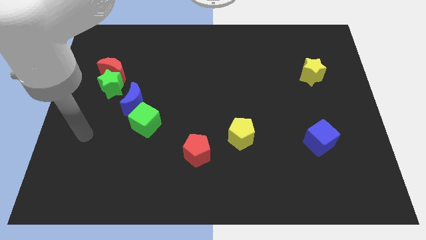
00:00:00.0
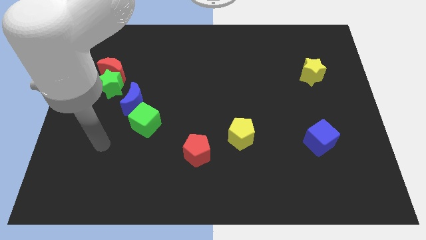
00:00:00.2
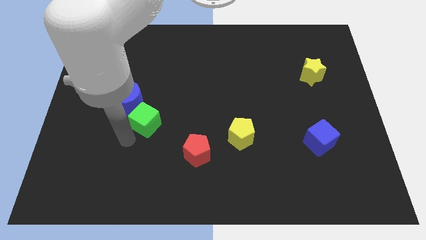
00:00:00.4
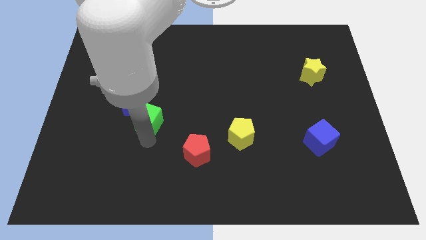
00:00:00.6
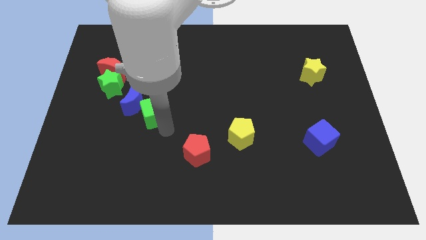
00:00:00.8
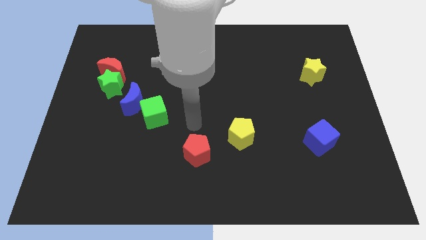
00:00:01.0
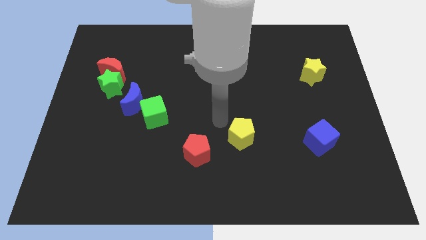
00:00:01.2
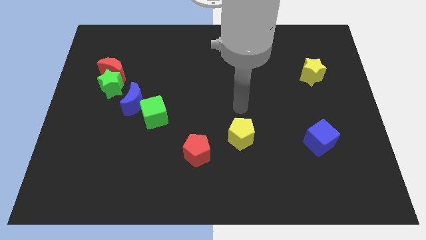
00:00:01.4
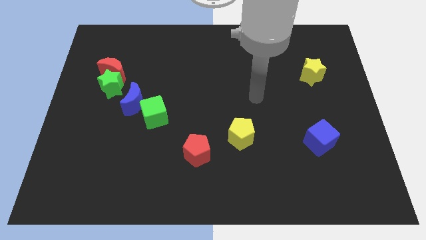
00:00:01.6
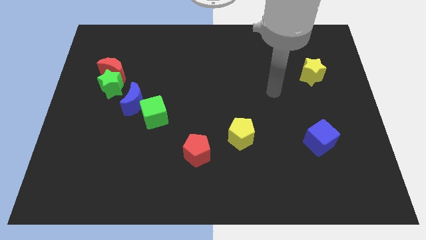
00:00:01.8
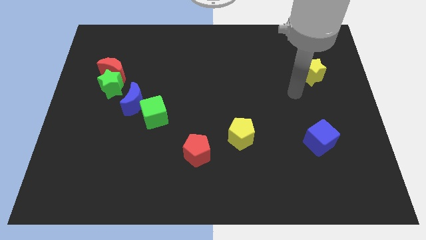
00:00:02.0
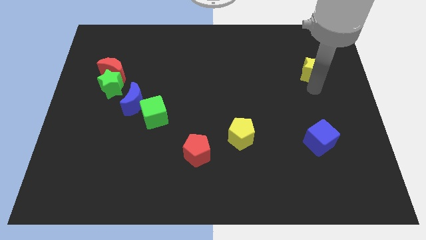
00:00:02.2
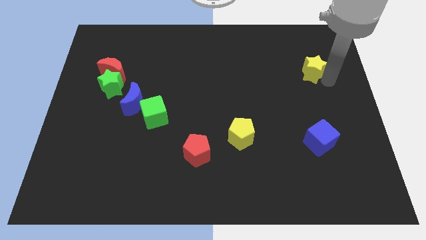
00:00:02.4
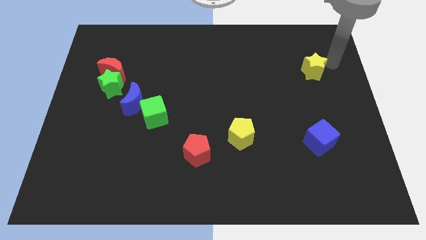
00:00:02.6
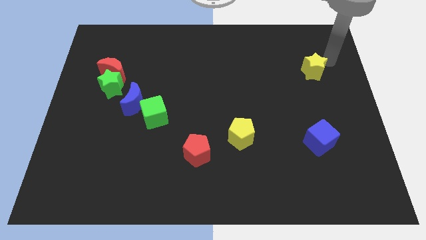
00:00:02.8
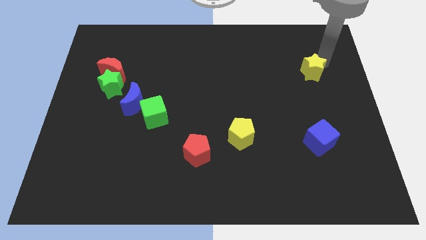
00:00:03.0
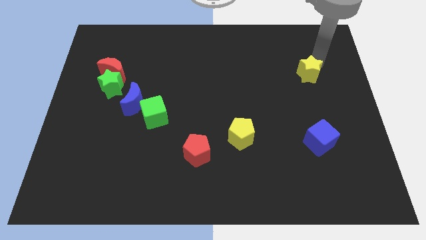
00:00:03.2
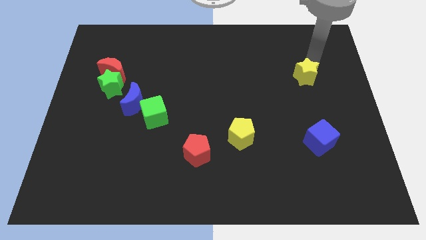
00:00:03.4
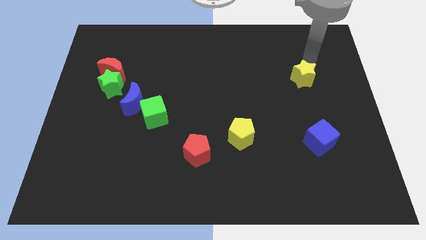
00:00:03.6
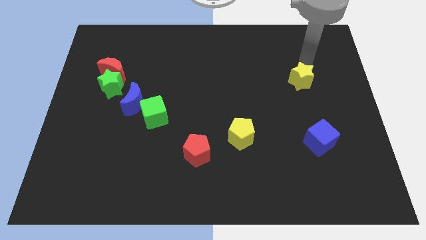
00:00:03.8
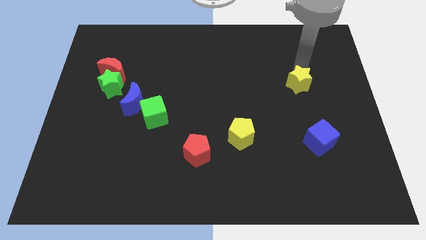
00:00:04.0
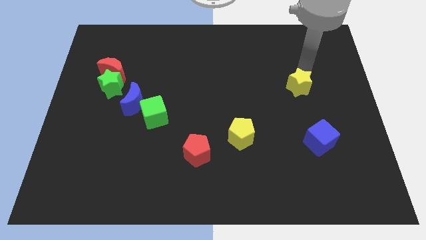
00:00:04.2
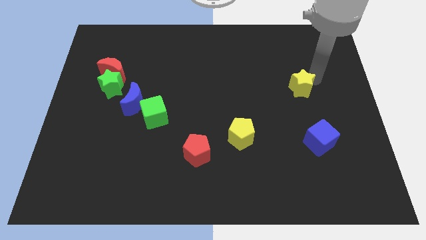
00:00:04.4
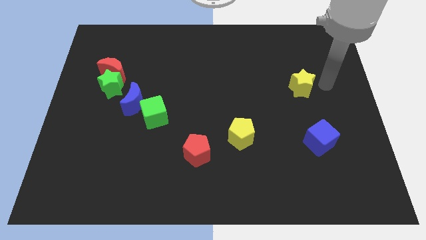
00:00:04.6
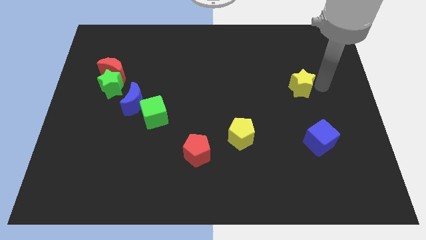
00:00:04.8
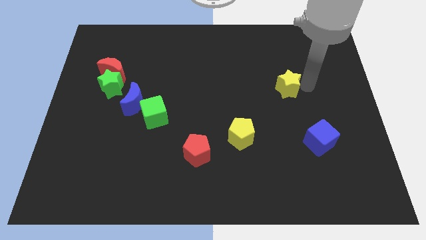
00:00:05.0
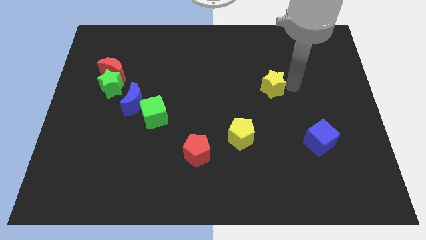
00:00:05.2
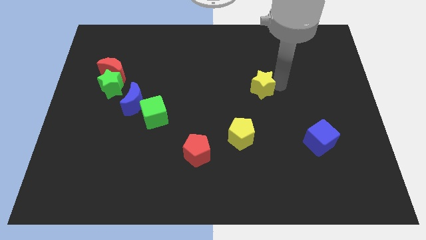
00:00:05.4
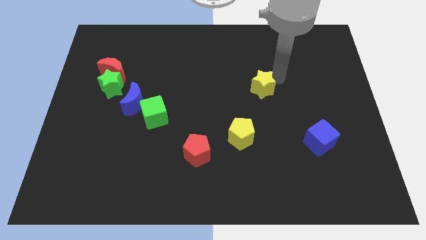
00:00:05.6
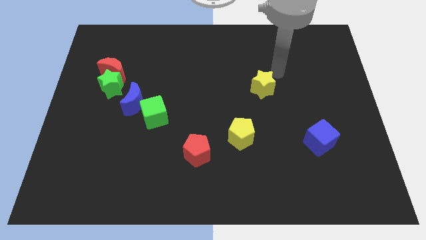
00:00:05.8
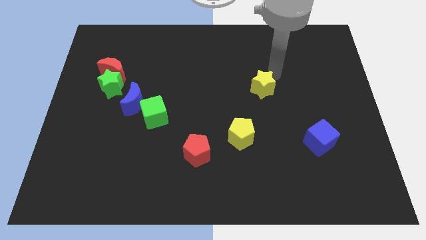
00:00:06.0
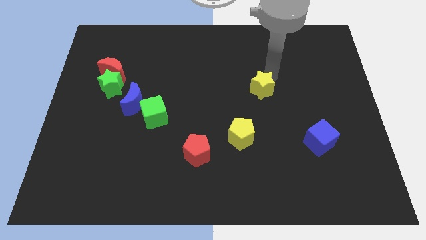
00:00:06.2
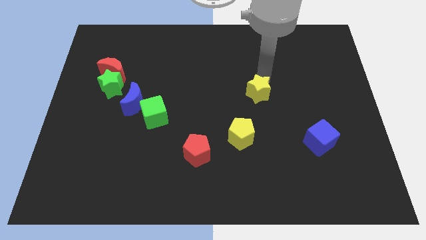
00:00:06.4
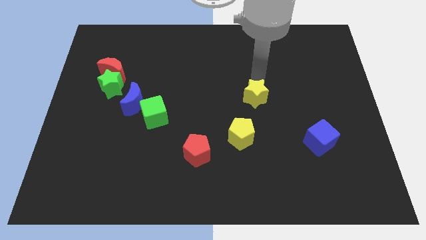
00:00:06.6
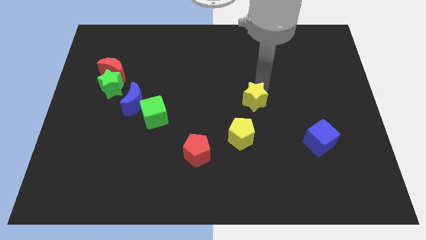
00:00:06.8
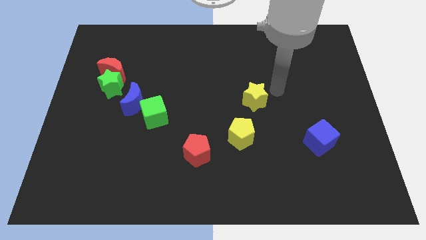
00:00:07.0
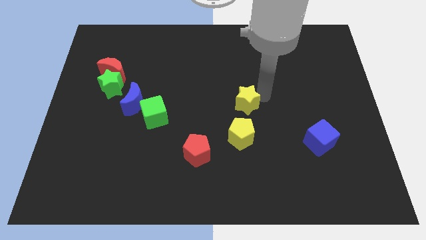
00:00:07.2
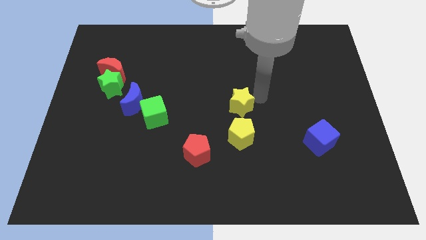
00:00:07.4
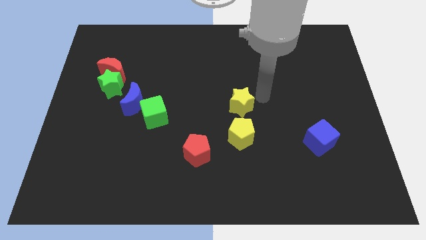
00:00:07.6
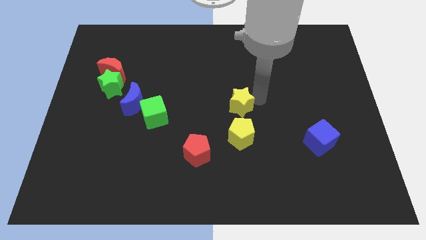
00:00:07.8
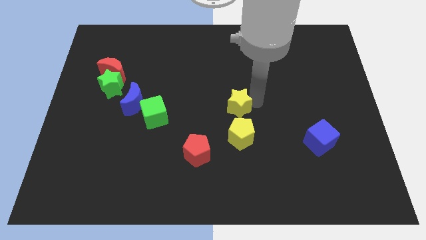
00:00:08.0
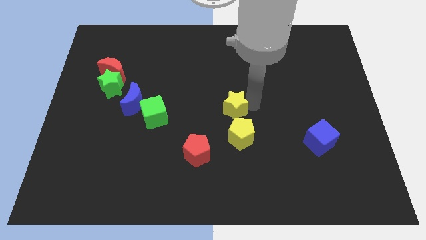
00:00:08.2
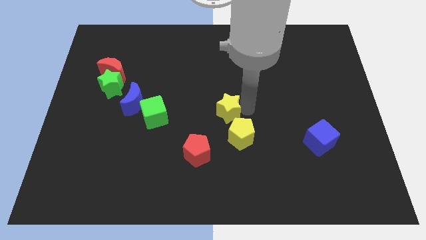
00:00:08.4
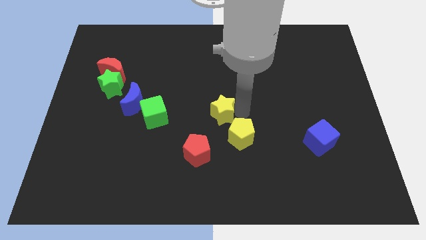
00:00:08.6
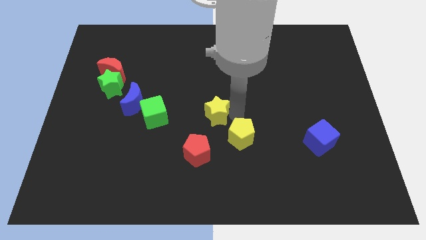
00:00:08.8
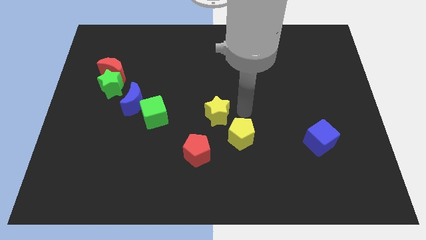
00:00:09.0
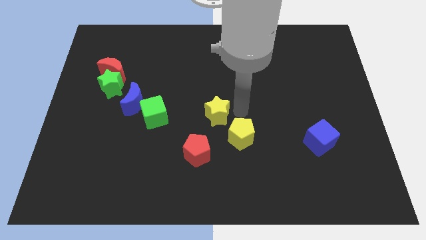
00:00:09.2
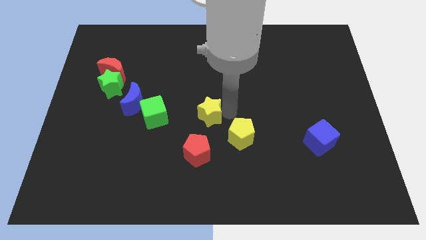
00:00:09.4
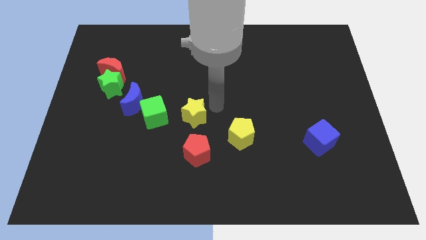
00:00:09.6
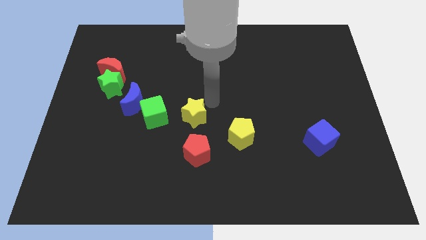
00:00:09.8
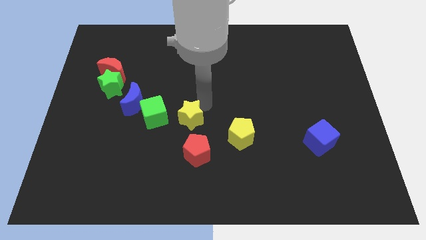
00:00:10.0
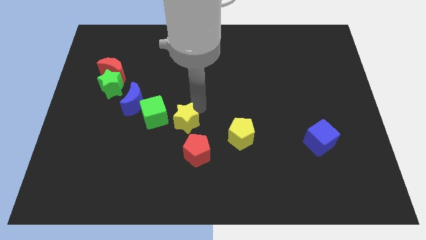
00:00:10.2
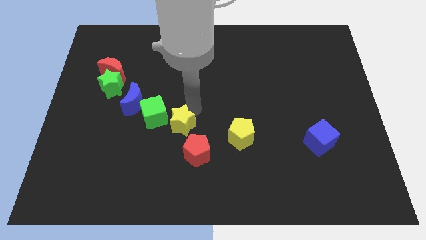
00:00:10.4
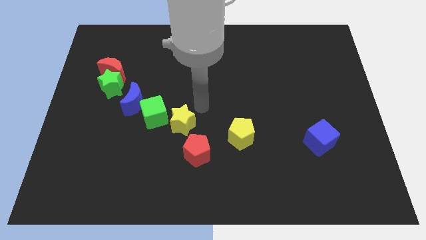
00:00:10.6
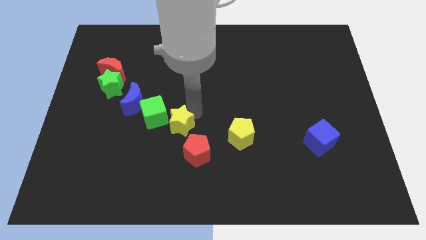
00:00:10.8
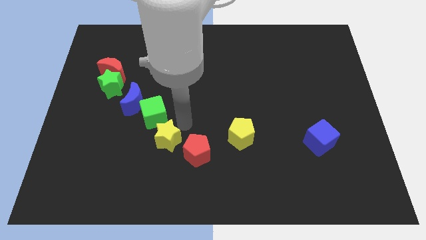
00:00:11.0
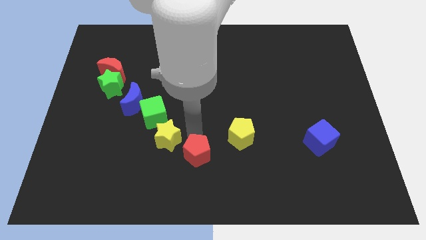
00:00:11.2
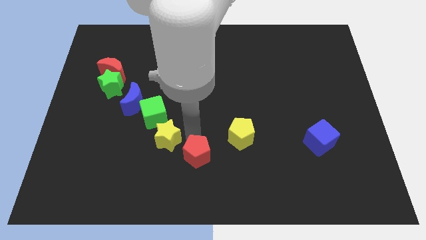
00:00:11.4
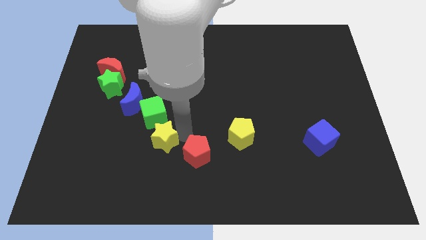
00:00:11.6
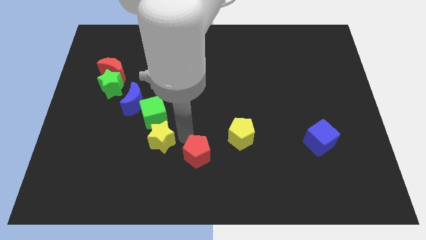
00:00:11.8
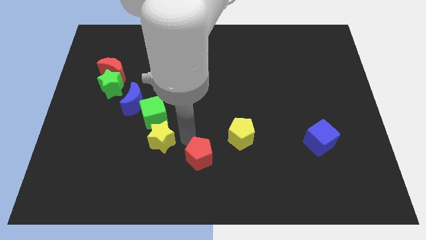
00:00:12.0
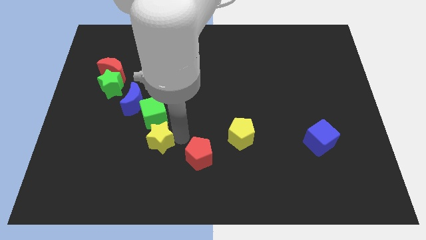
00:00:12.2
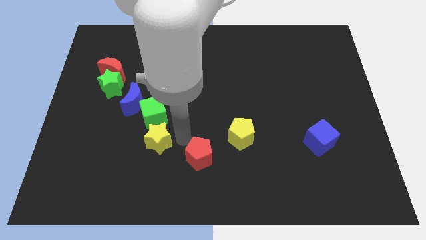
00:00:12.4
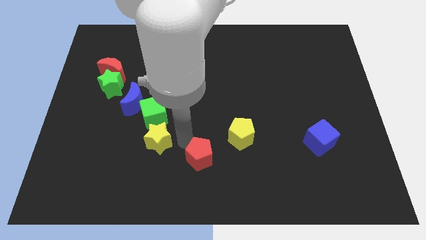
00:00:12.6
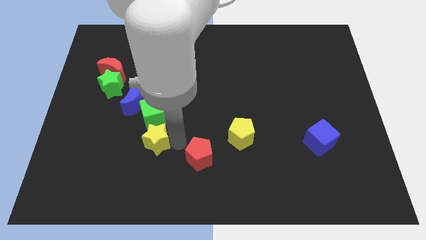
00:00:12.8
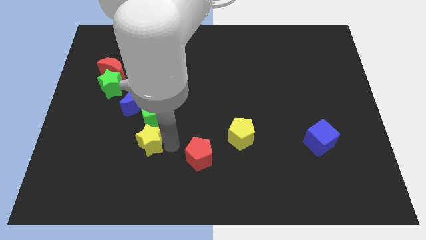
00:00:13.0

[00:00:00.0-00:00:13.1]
push the yellow star to the bottom side of the blue moon

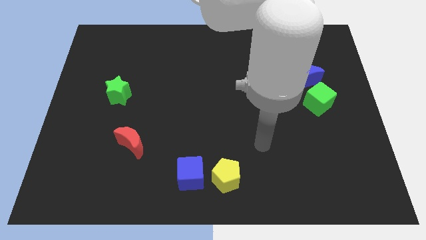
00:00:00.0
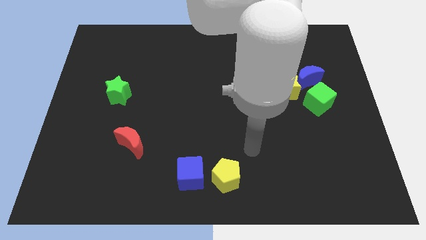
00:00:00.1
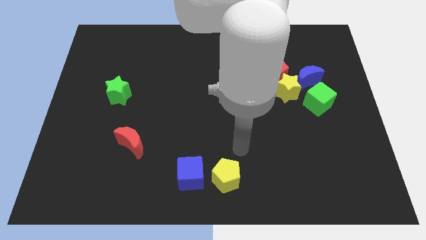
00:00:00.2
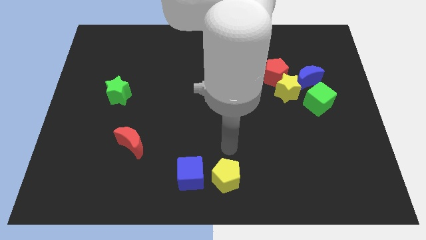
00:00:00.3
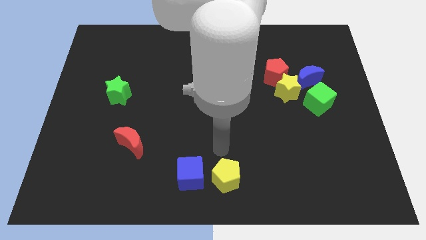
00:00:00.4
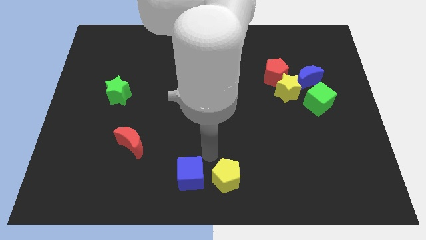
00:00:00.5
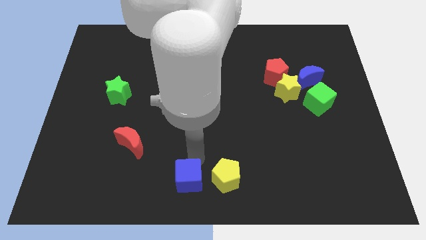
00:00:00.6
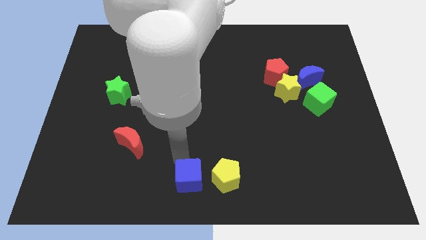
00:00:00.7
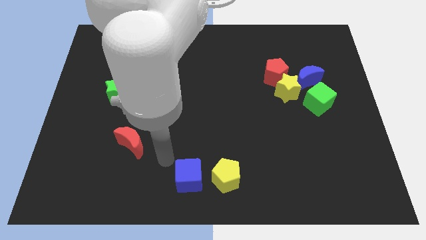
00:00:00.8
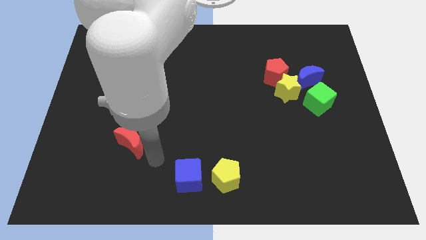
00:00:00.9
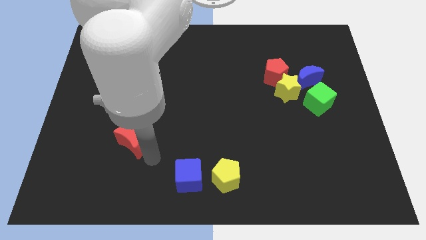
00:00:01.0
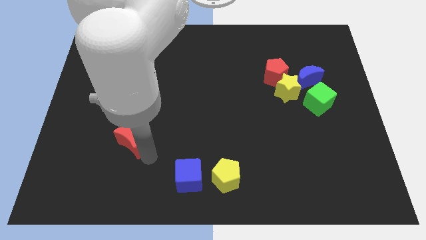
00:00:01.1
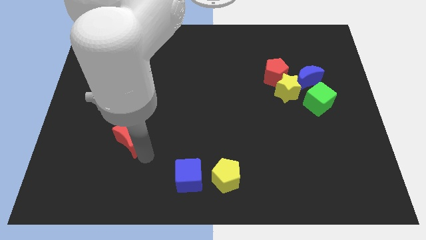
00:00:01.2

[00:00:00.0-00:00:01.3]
slide the red moon below the green star
